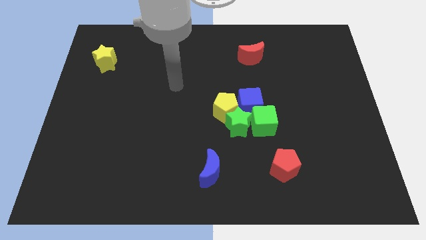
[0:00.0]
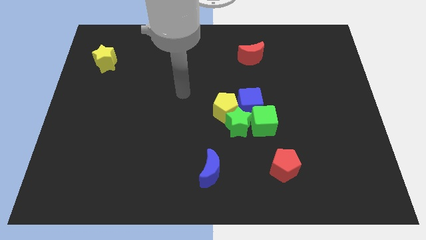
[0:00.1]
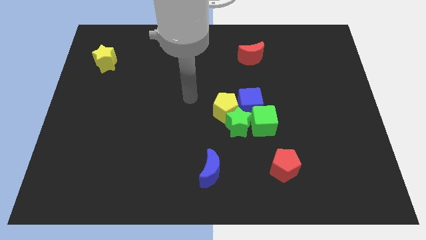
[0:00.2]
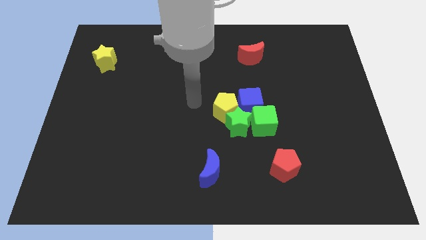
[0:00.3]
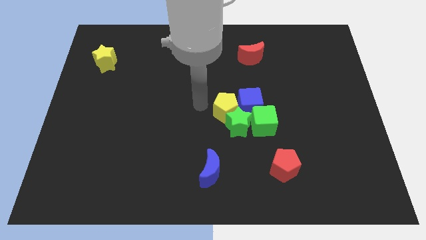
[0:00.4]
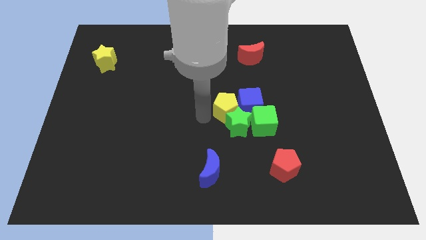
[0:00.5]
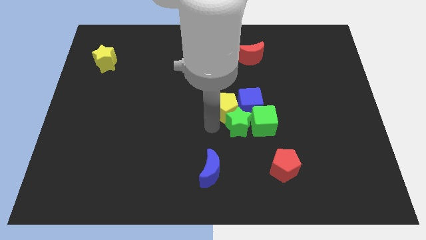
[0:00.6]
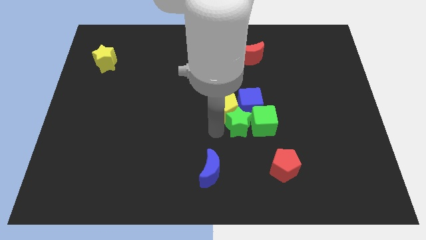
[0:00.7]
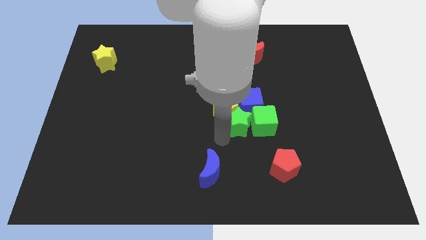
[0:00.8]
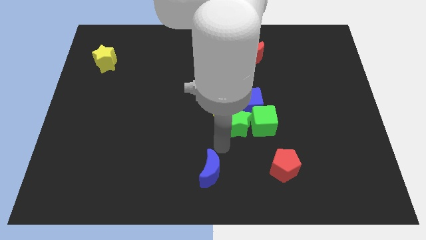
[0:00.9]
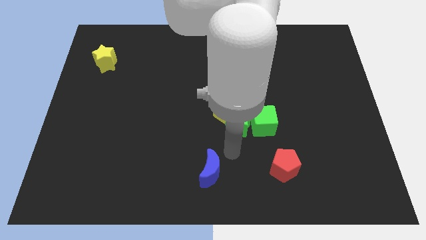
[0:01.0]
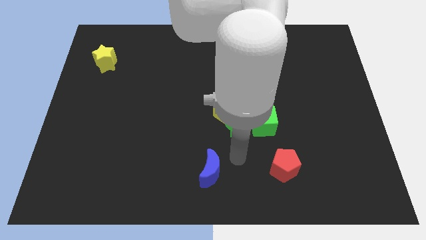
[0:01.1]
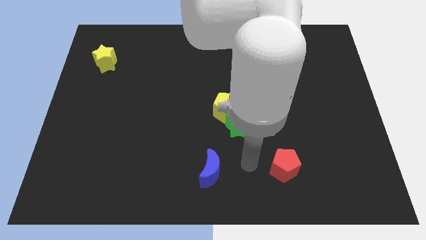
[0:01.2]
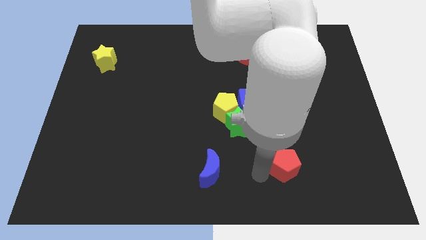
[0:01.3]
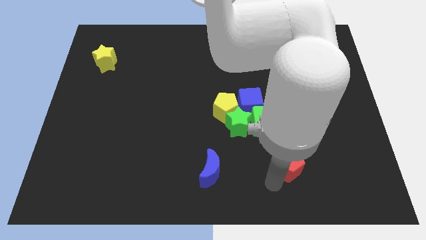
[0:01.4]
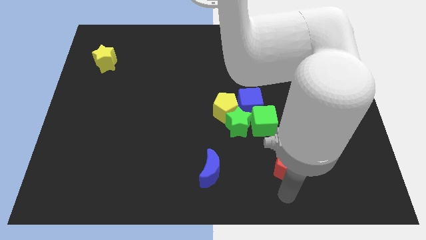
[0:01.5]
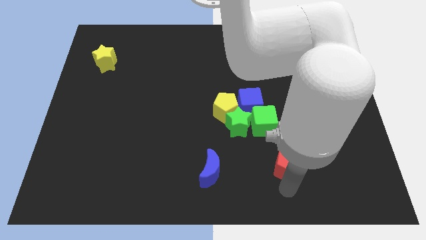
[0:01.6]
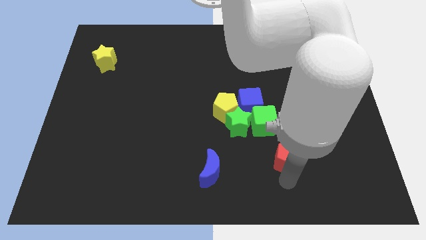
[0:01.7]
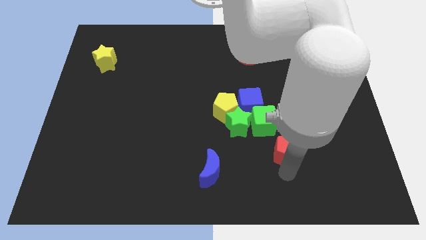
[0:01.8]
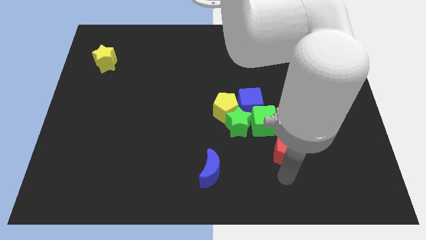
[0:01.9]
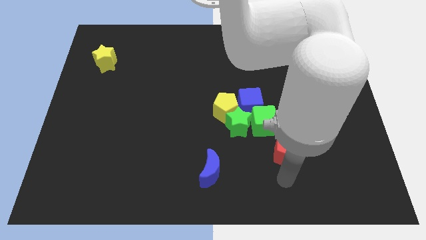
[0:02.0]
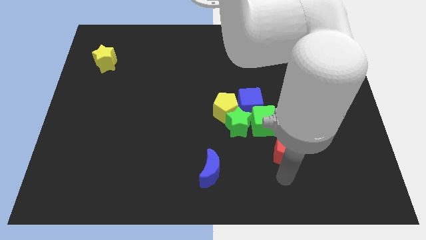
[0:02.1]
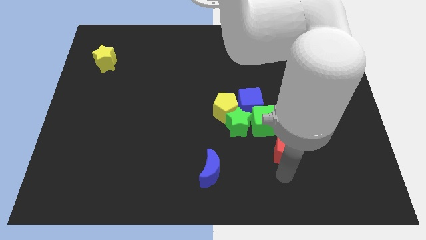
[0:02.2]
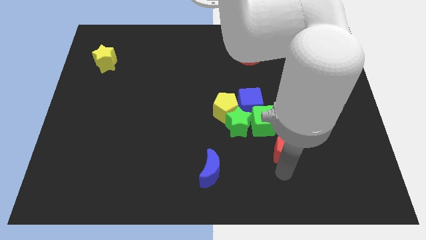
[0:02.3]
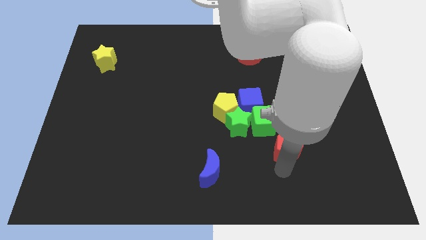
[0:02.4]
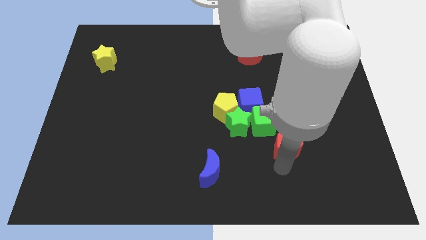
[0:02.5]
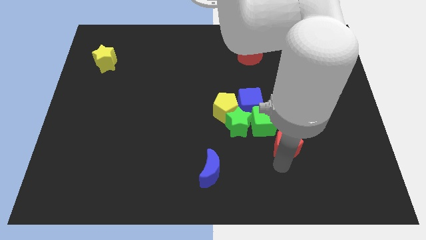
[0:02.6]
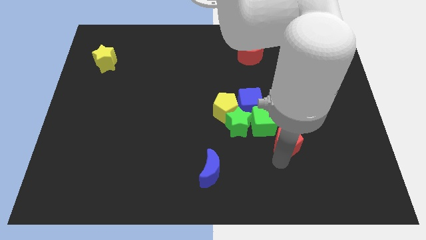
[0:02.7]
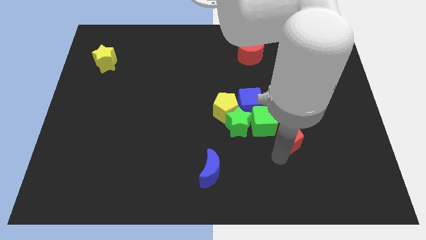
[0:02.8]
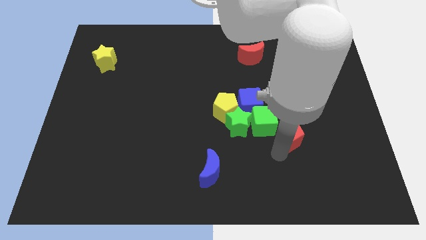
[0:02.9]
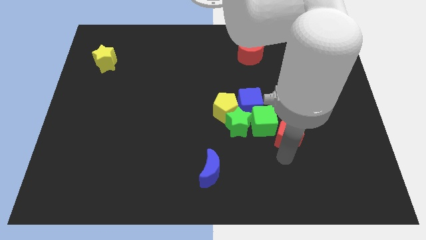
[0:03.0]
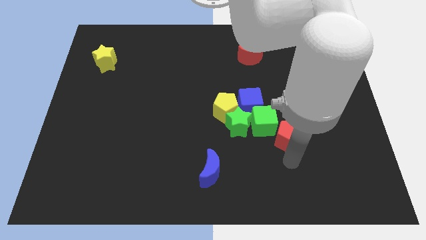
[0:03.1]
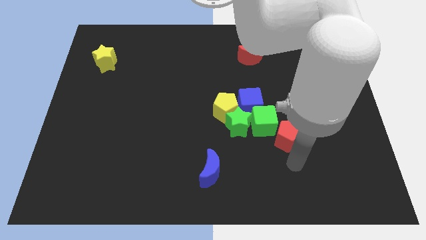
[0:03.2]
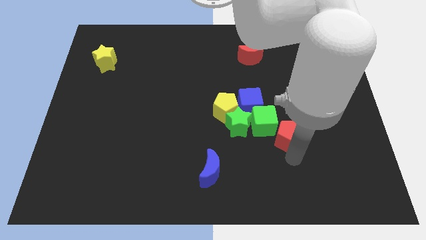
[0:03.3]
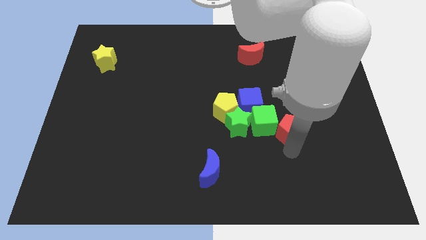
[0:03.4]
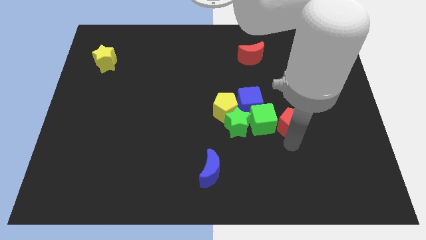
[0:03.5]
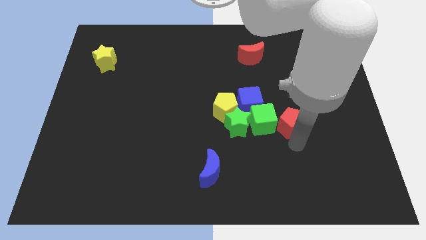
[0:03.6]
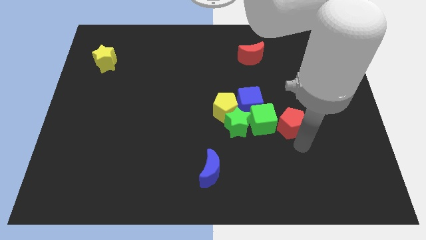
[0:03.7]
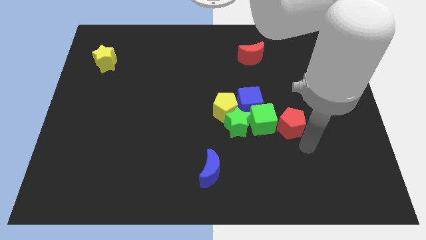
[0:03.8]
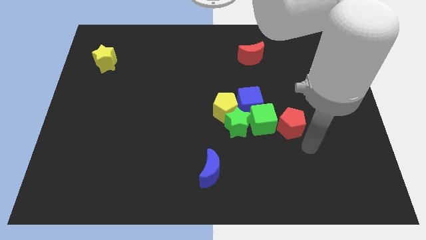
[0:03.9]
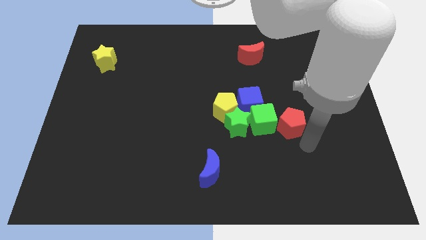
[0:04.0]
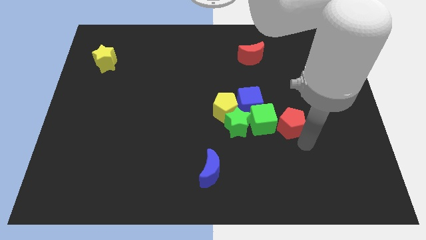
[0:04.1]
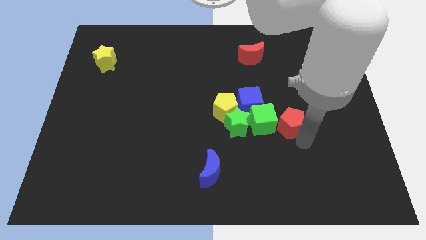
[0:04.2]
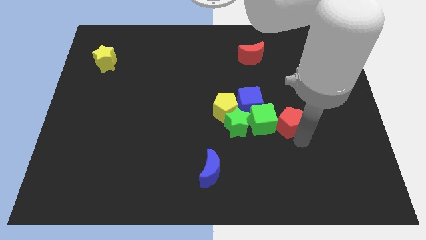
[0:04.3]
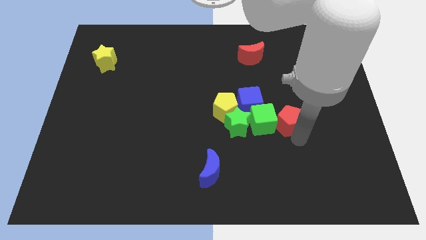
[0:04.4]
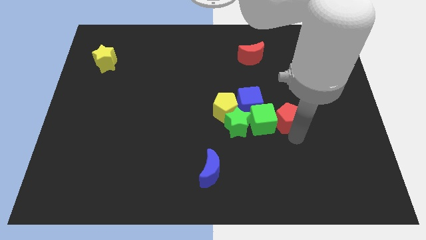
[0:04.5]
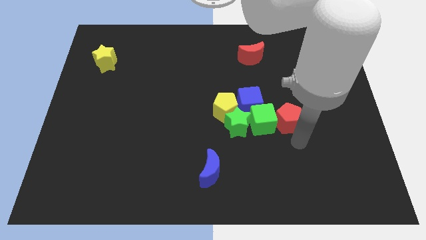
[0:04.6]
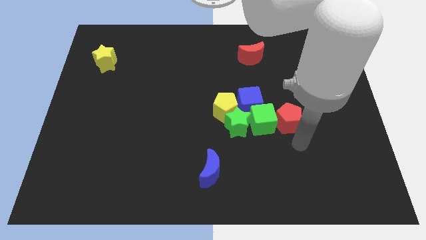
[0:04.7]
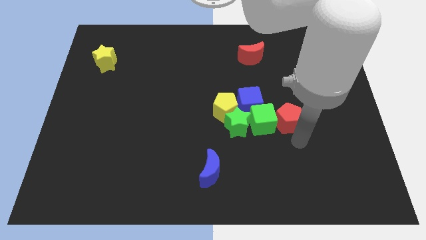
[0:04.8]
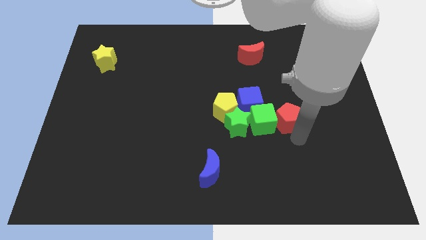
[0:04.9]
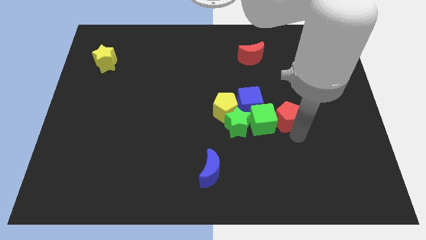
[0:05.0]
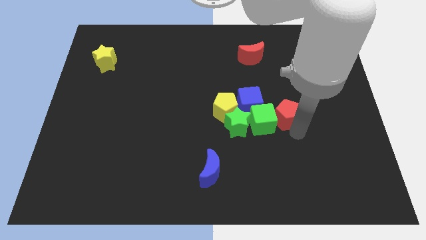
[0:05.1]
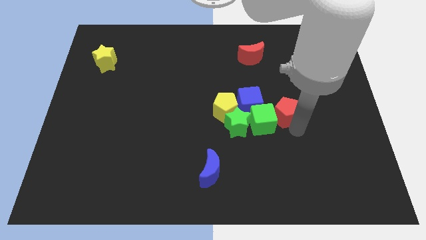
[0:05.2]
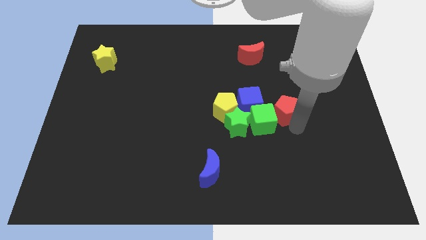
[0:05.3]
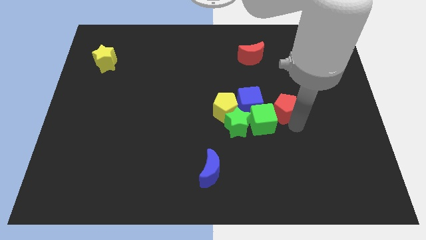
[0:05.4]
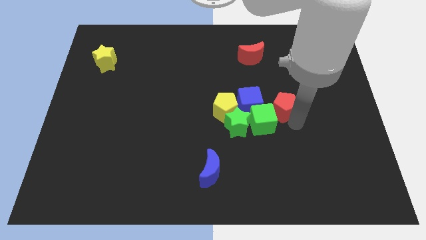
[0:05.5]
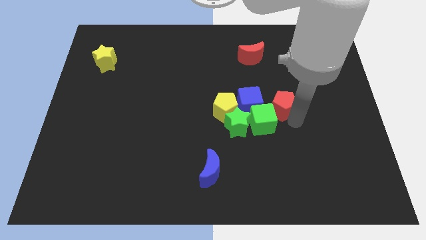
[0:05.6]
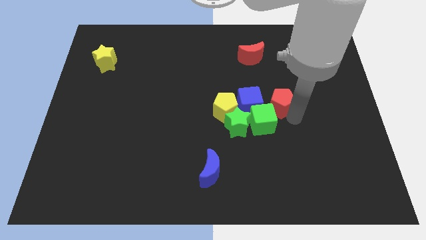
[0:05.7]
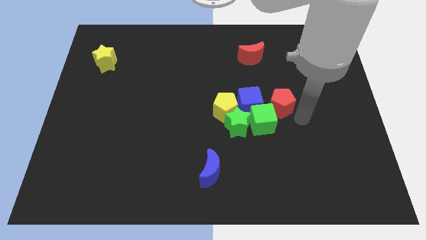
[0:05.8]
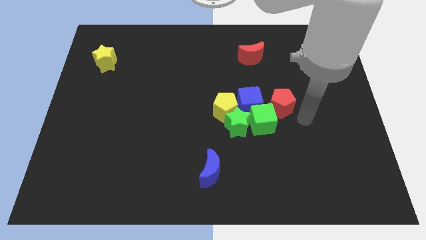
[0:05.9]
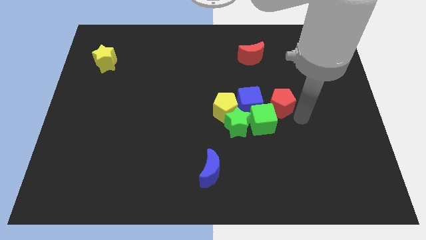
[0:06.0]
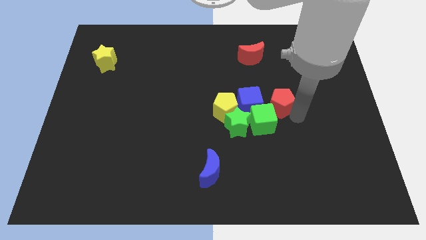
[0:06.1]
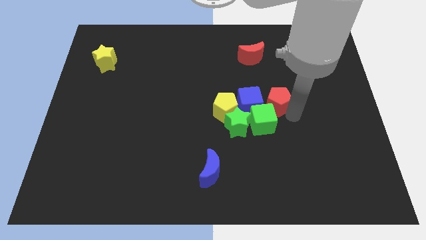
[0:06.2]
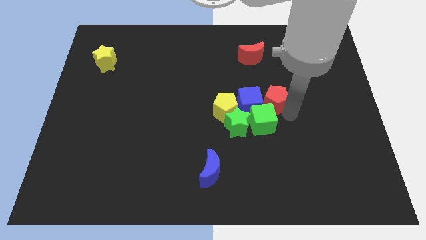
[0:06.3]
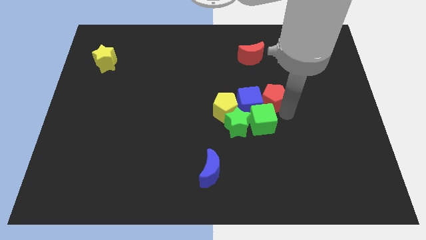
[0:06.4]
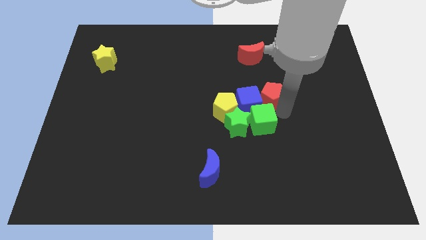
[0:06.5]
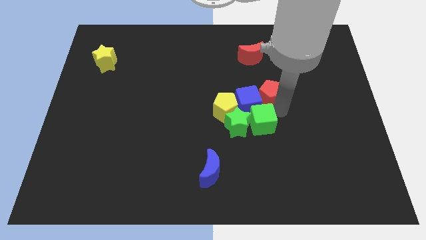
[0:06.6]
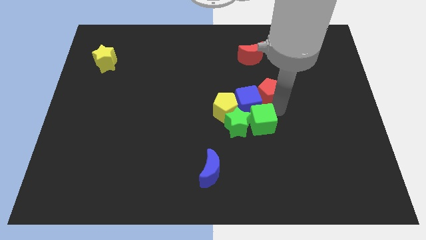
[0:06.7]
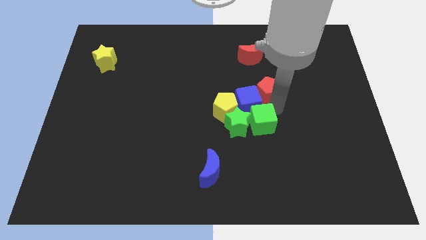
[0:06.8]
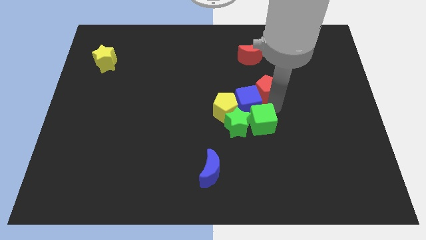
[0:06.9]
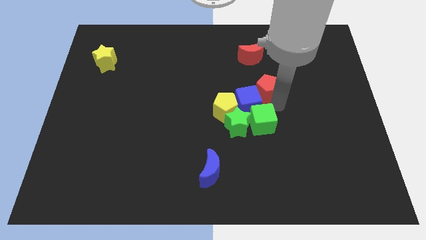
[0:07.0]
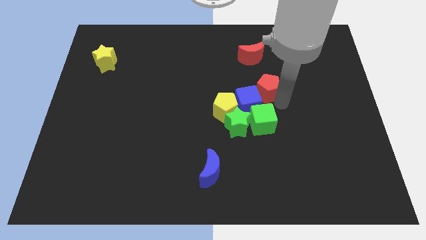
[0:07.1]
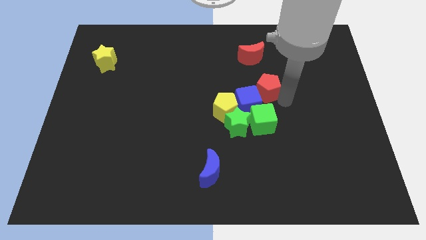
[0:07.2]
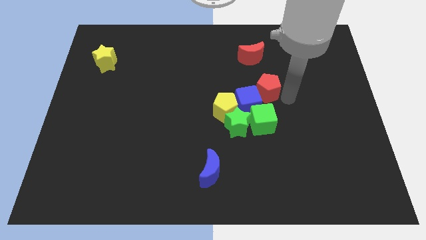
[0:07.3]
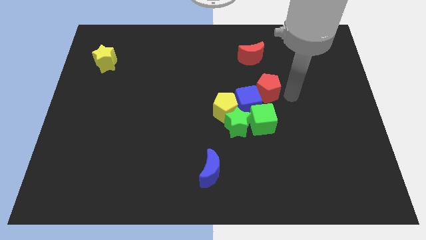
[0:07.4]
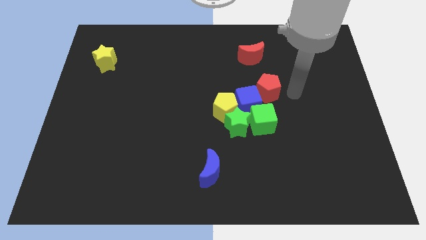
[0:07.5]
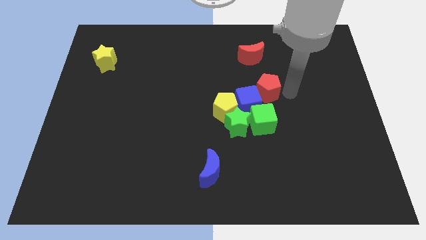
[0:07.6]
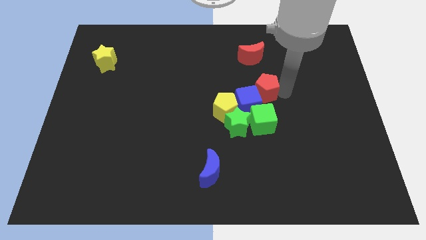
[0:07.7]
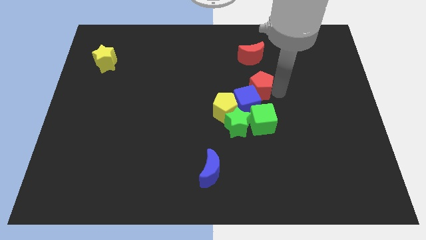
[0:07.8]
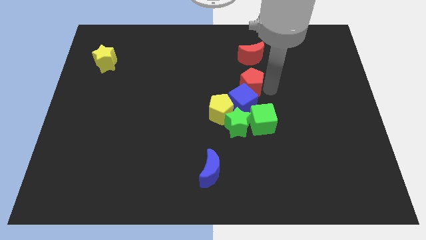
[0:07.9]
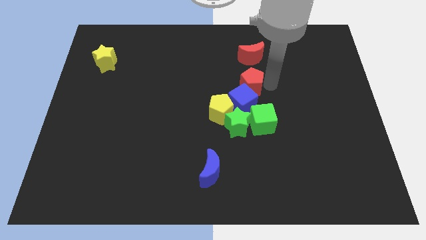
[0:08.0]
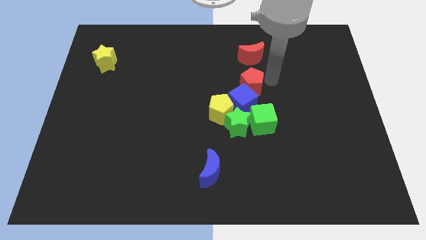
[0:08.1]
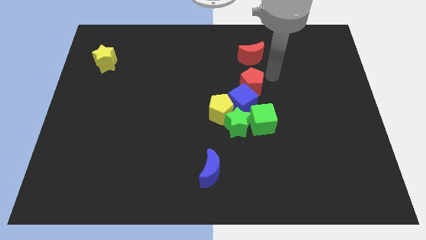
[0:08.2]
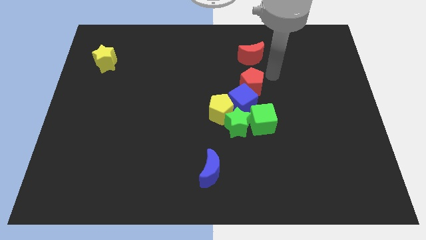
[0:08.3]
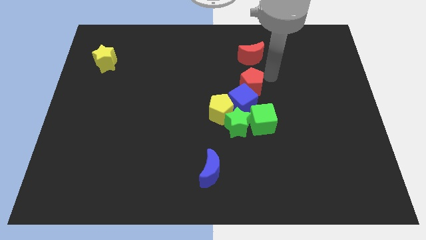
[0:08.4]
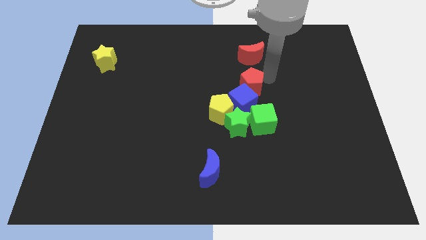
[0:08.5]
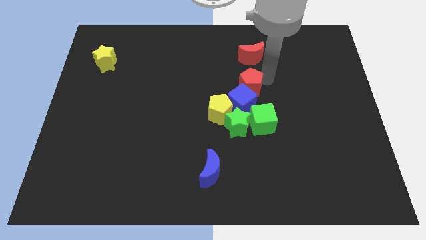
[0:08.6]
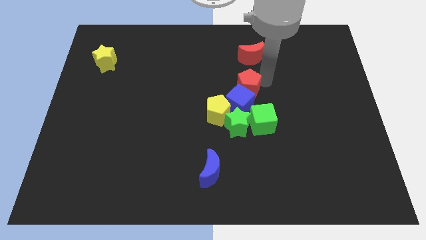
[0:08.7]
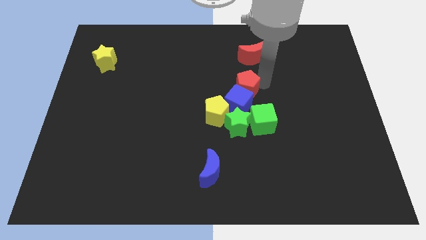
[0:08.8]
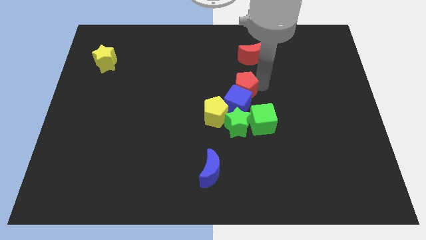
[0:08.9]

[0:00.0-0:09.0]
slide the red pentagon to the top left side of the green cube
